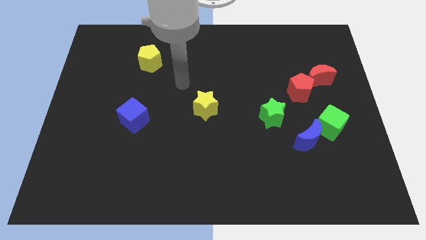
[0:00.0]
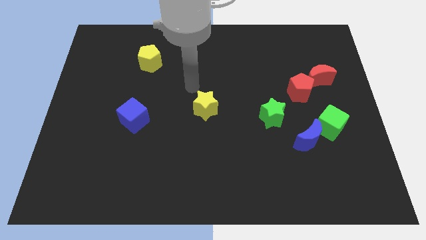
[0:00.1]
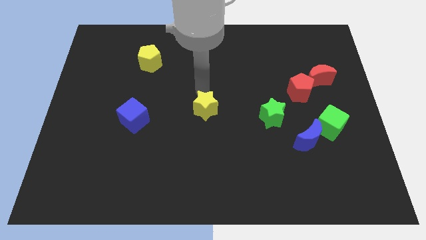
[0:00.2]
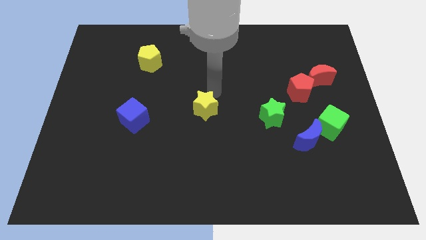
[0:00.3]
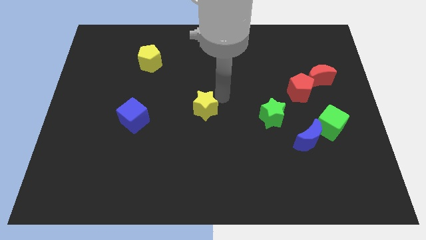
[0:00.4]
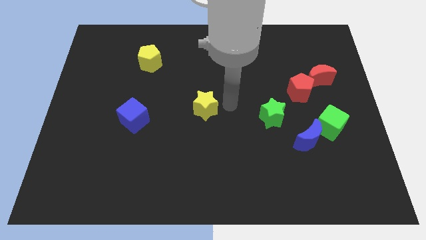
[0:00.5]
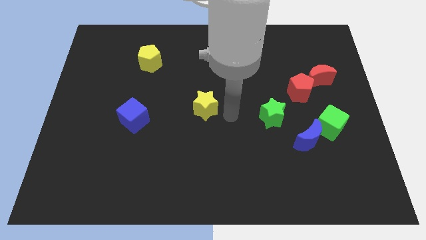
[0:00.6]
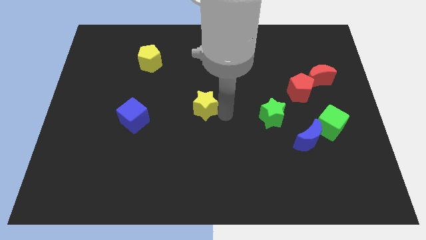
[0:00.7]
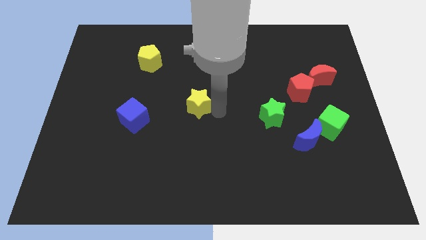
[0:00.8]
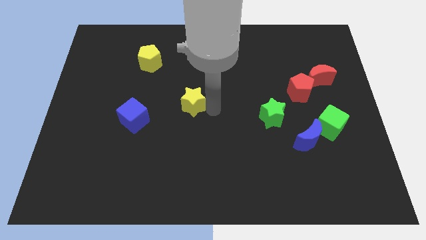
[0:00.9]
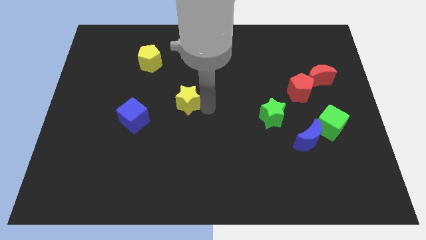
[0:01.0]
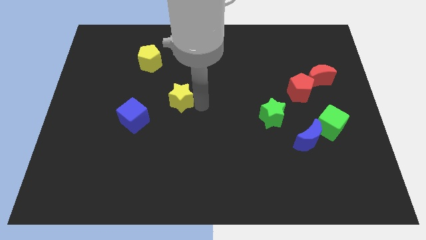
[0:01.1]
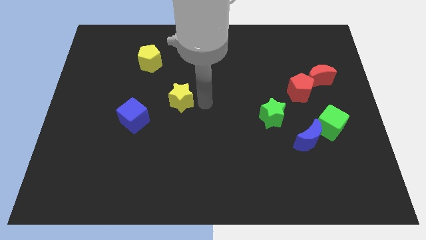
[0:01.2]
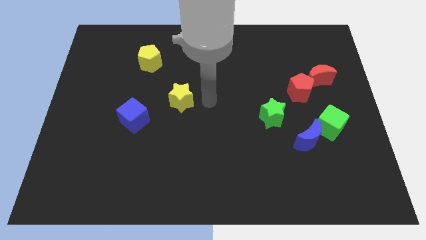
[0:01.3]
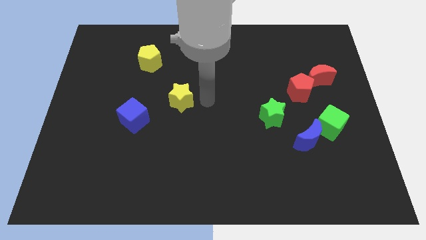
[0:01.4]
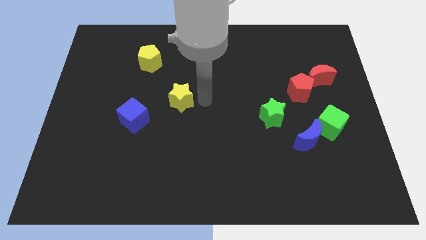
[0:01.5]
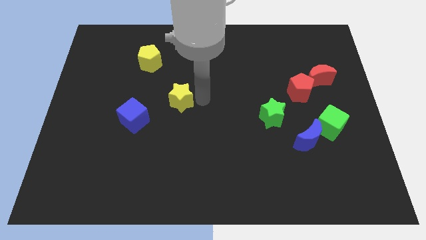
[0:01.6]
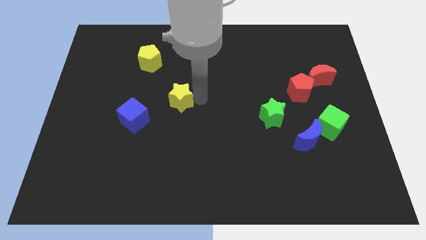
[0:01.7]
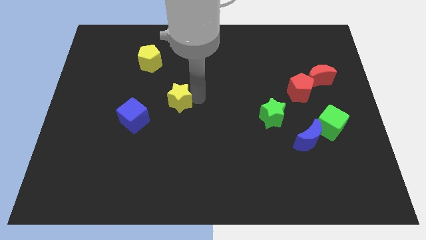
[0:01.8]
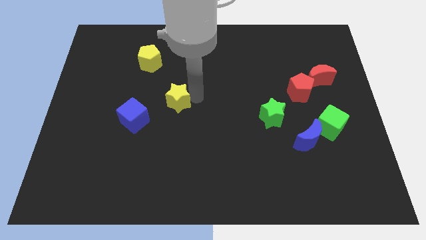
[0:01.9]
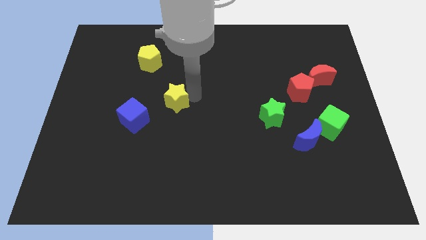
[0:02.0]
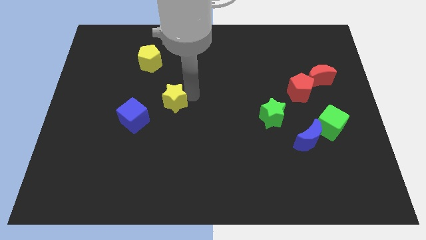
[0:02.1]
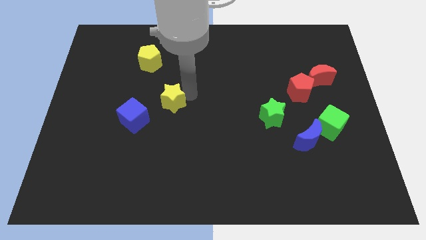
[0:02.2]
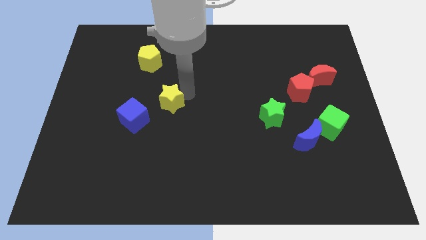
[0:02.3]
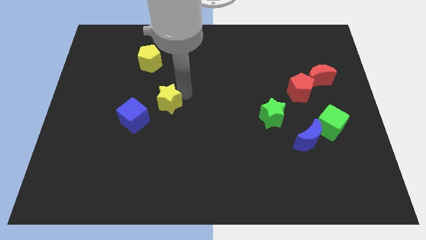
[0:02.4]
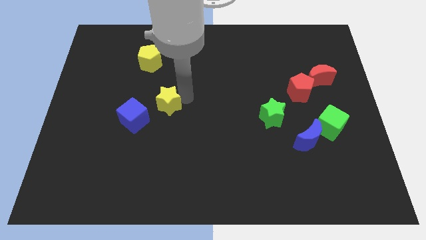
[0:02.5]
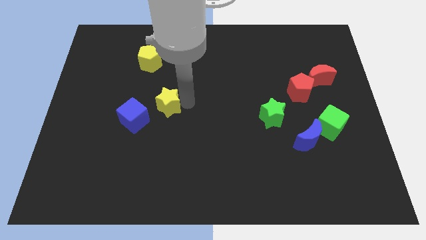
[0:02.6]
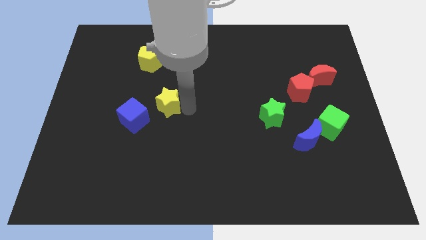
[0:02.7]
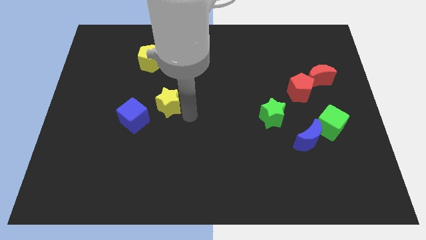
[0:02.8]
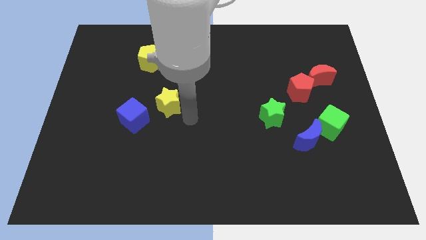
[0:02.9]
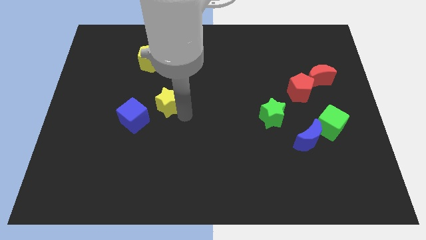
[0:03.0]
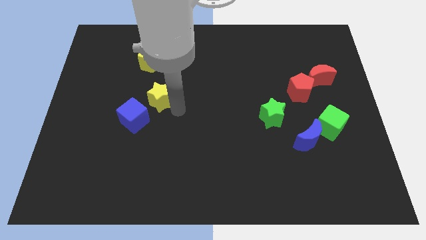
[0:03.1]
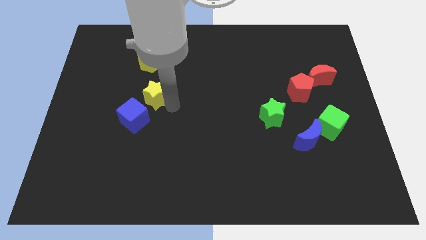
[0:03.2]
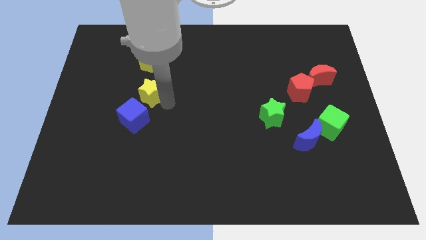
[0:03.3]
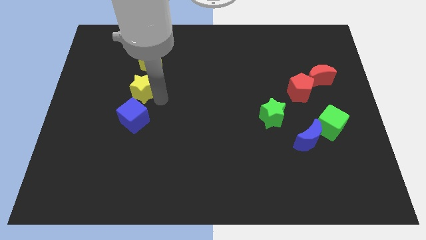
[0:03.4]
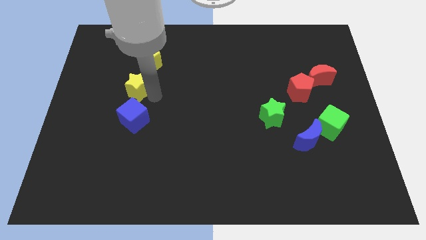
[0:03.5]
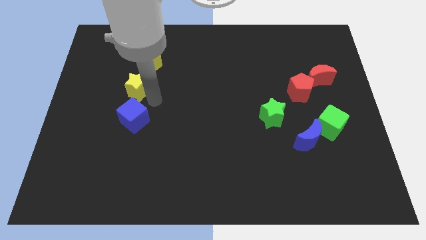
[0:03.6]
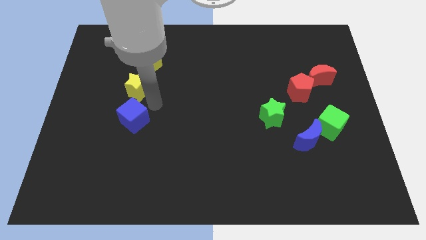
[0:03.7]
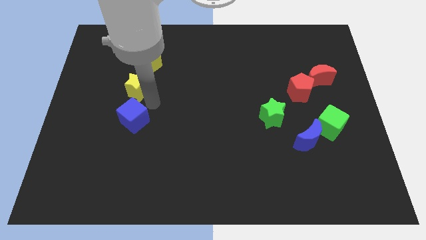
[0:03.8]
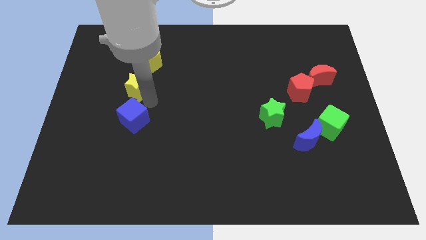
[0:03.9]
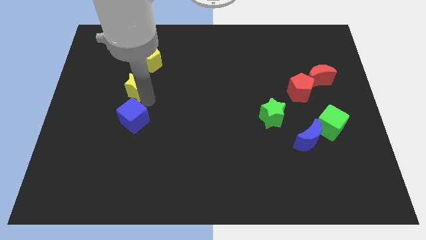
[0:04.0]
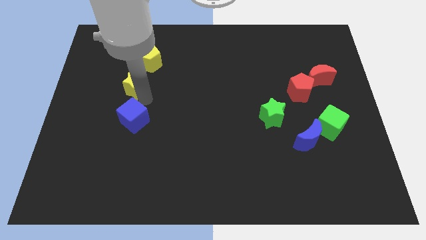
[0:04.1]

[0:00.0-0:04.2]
put the yellow star to the bottom left side of the yellow pentagon

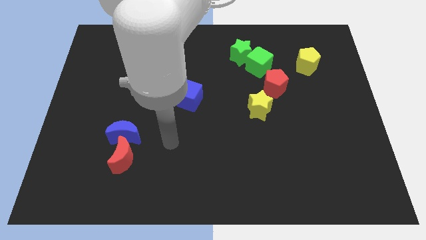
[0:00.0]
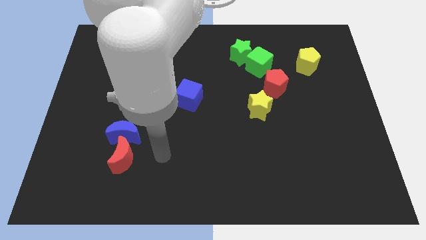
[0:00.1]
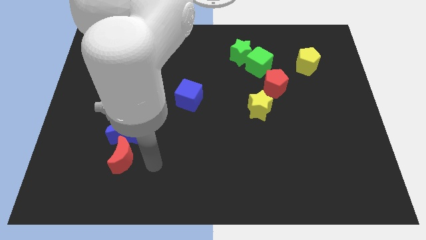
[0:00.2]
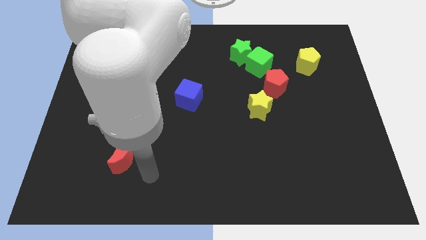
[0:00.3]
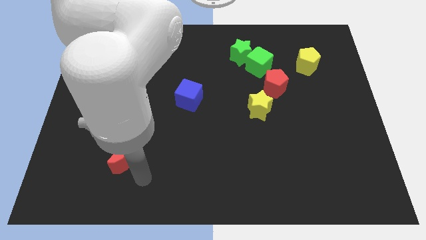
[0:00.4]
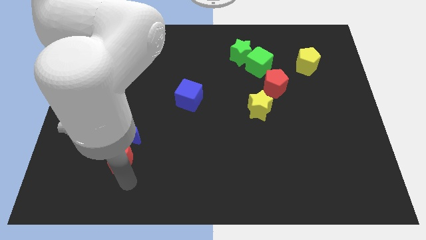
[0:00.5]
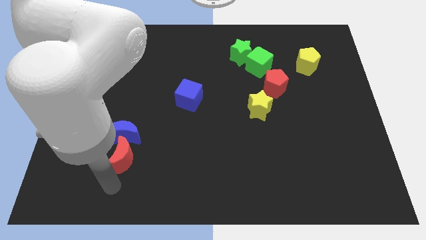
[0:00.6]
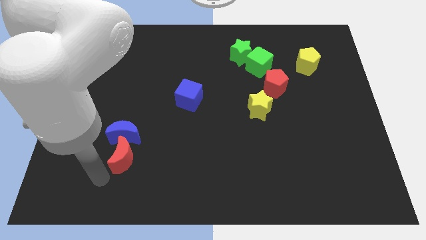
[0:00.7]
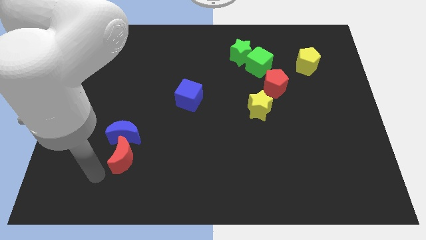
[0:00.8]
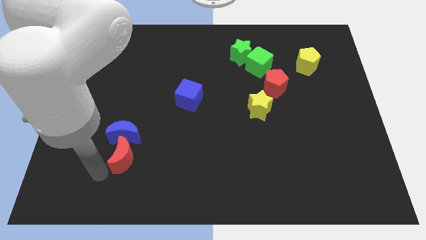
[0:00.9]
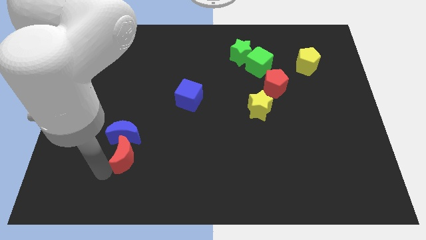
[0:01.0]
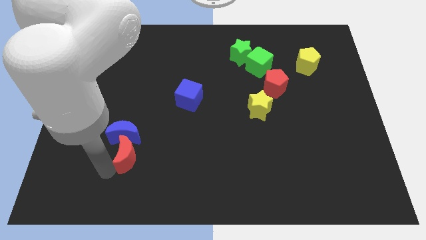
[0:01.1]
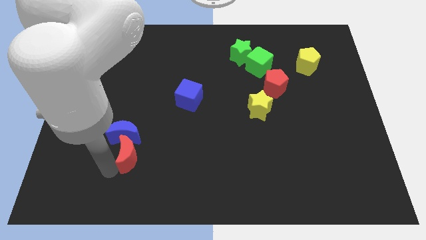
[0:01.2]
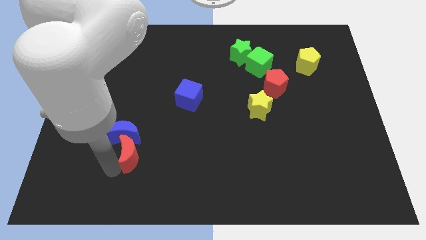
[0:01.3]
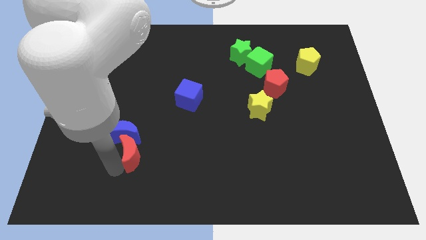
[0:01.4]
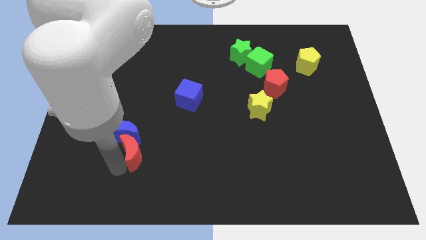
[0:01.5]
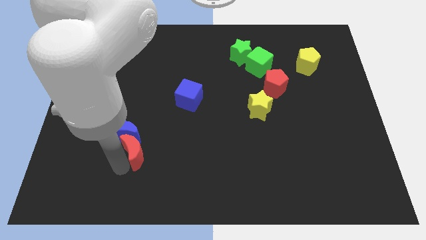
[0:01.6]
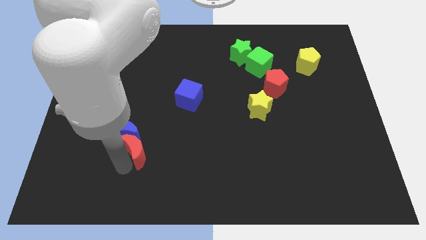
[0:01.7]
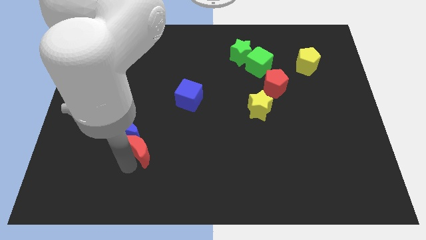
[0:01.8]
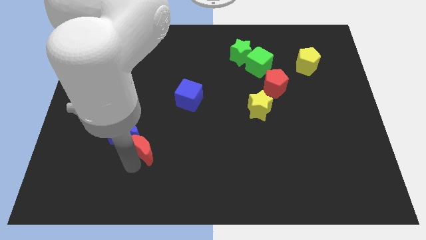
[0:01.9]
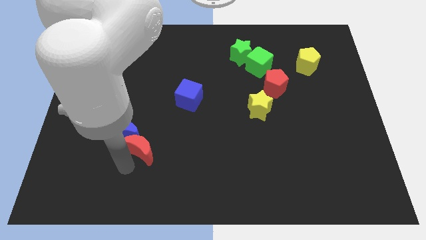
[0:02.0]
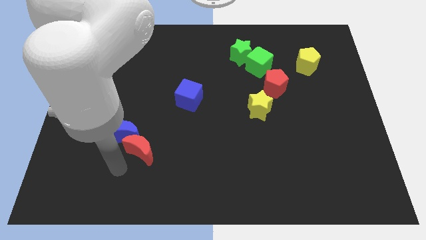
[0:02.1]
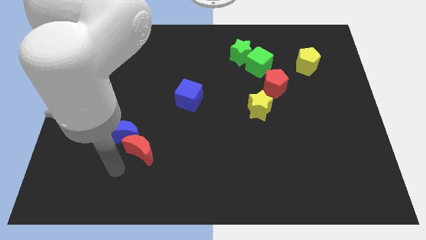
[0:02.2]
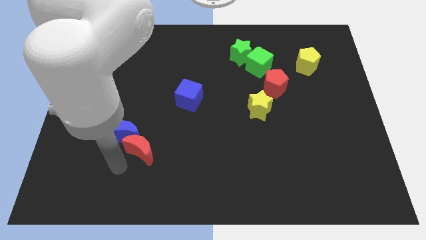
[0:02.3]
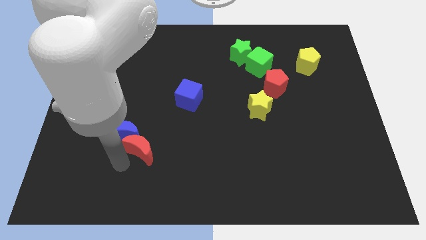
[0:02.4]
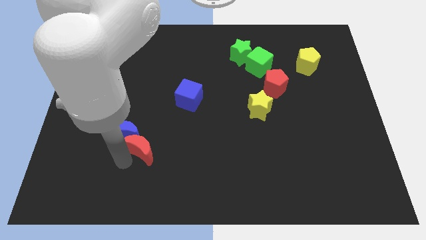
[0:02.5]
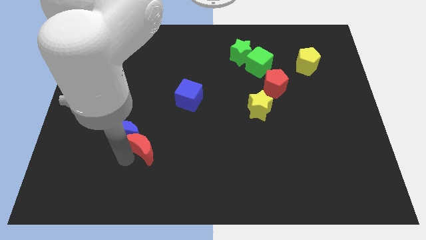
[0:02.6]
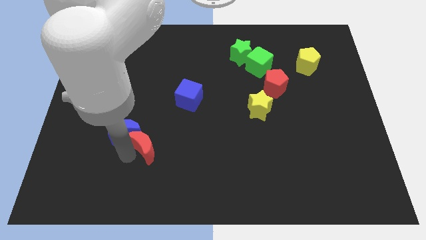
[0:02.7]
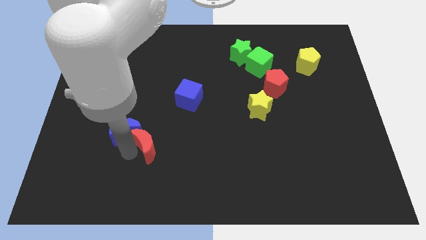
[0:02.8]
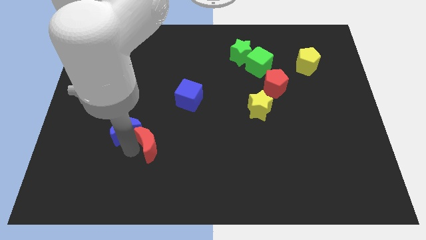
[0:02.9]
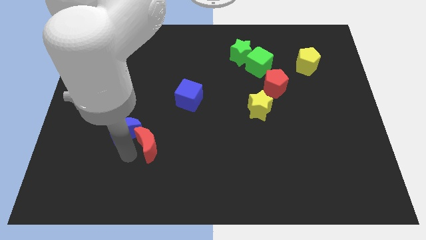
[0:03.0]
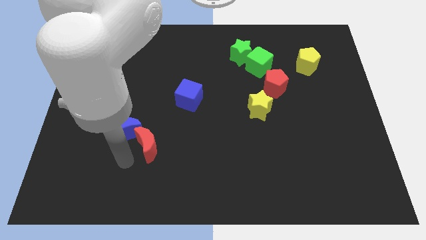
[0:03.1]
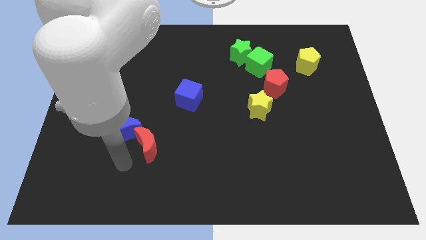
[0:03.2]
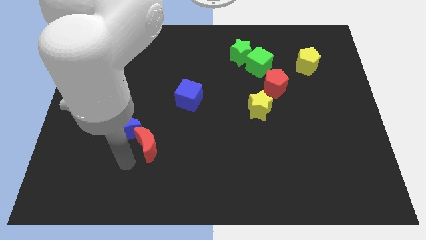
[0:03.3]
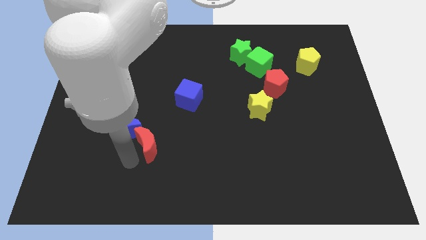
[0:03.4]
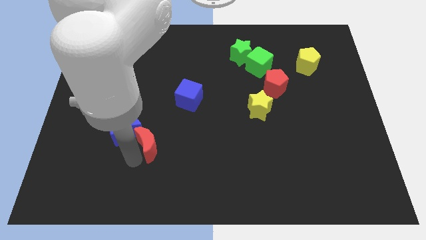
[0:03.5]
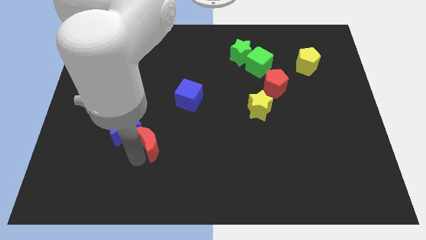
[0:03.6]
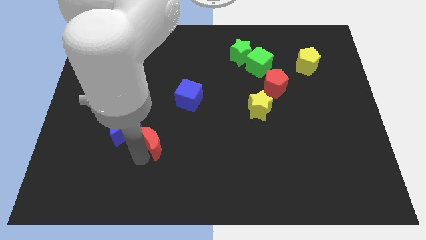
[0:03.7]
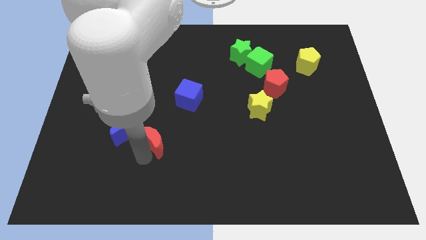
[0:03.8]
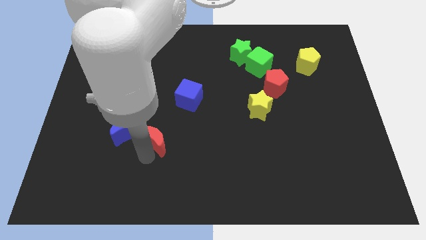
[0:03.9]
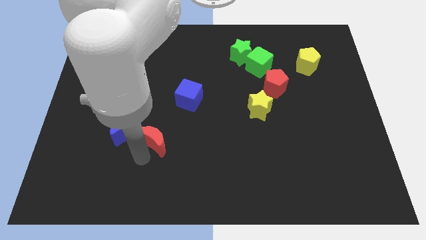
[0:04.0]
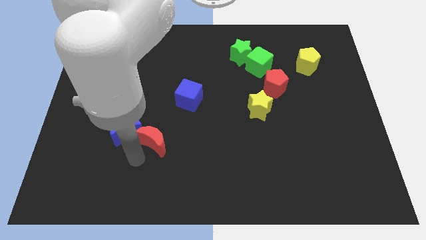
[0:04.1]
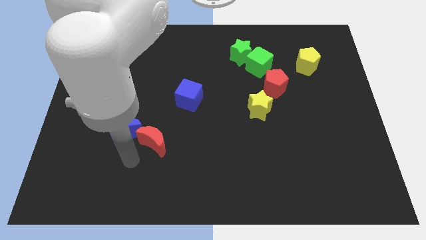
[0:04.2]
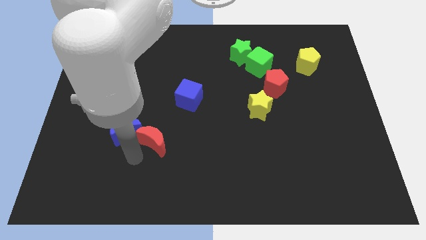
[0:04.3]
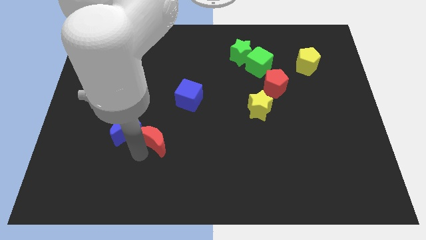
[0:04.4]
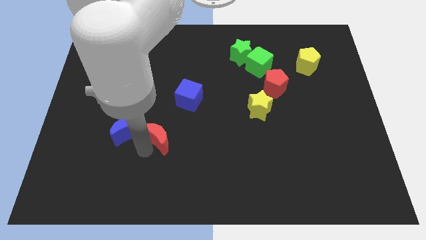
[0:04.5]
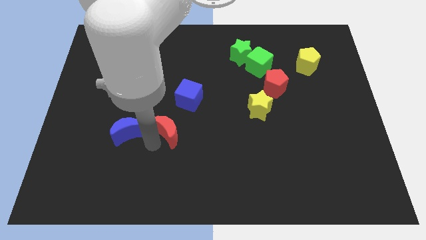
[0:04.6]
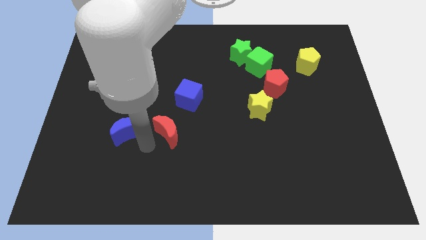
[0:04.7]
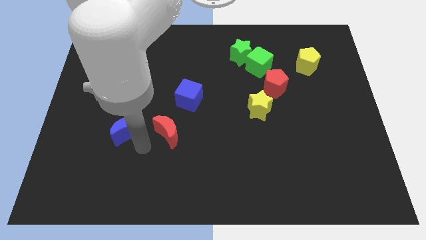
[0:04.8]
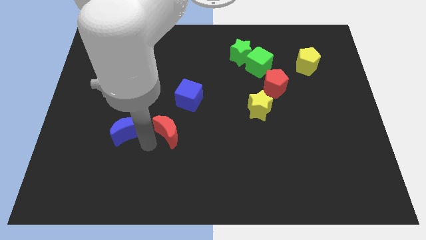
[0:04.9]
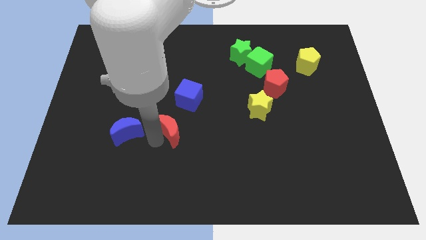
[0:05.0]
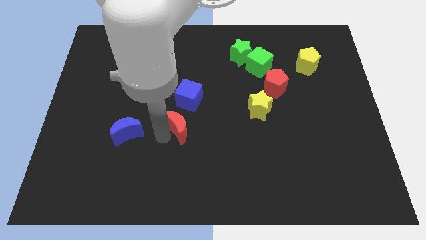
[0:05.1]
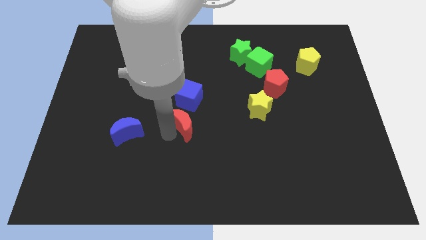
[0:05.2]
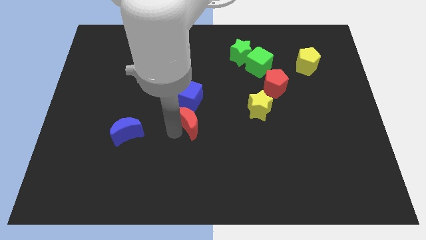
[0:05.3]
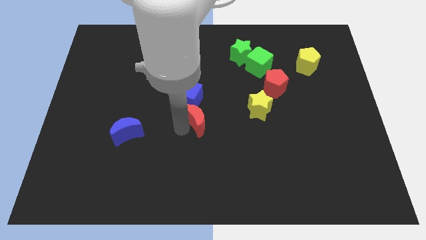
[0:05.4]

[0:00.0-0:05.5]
move the red moon to the left side of the yellow star
